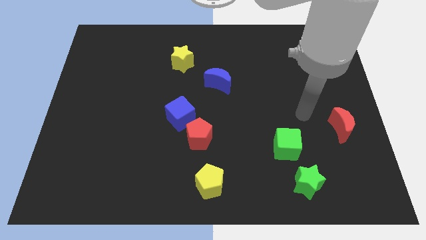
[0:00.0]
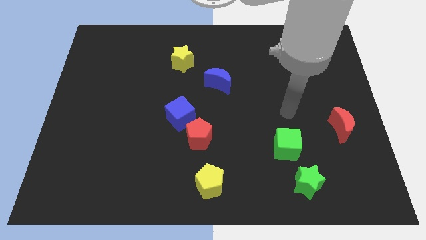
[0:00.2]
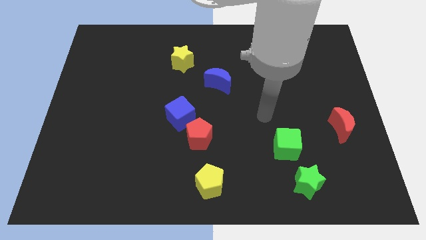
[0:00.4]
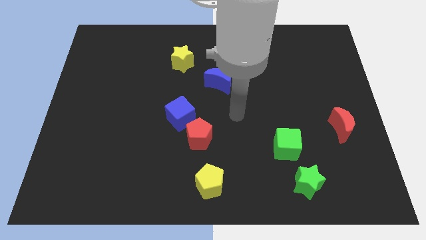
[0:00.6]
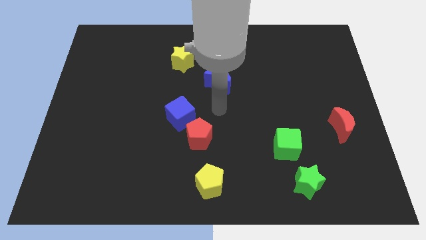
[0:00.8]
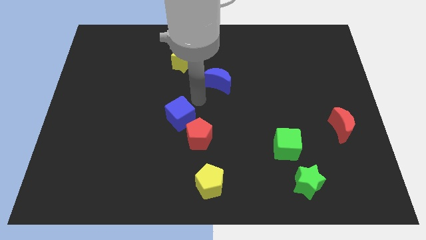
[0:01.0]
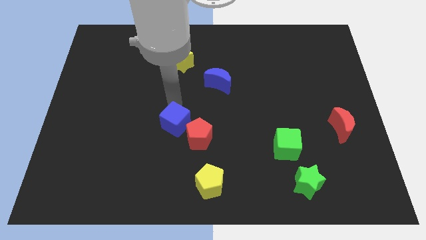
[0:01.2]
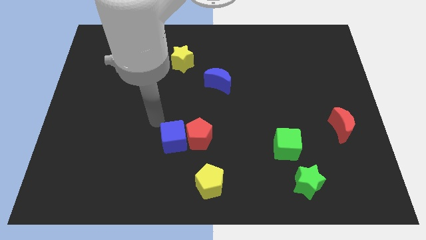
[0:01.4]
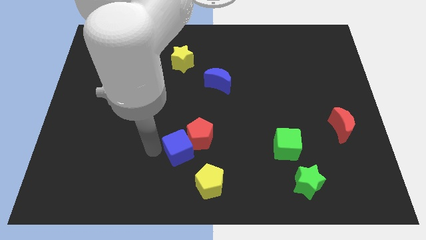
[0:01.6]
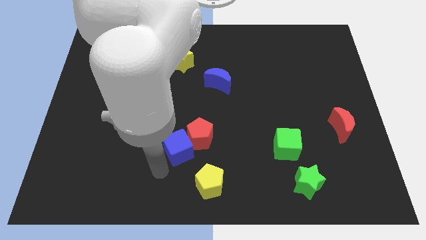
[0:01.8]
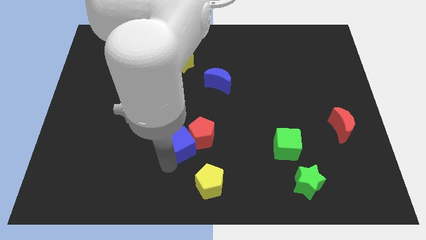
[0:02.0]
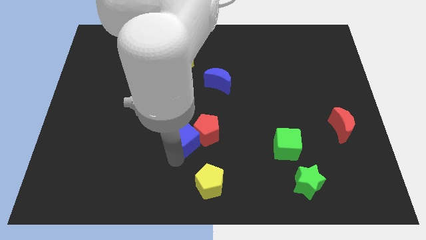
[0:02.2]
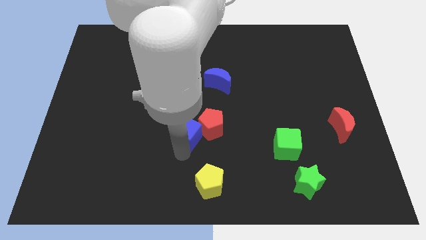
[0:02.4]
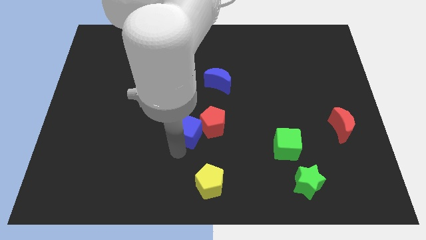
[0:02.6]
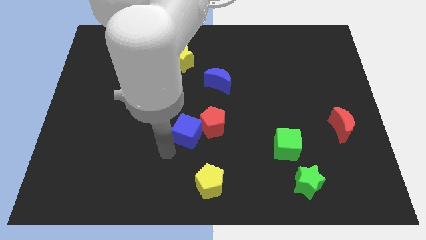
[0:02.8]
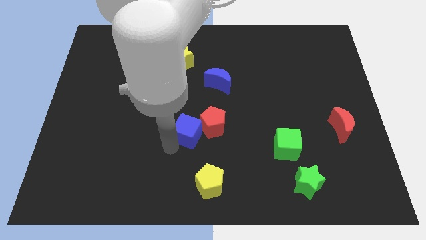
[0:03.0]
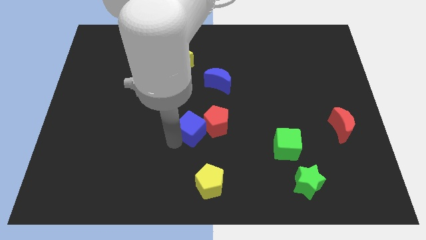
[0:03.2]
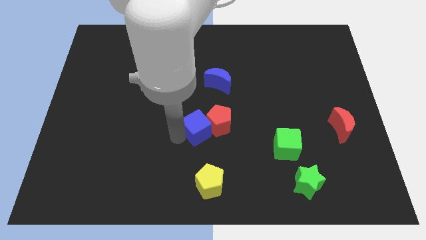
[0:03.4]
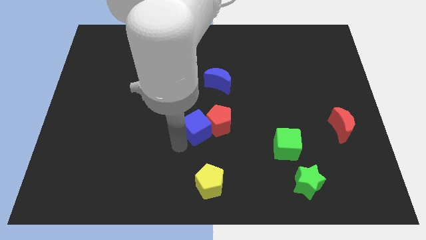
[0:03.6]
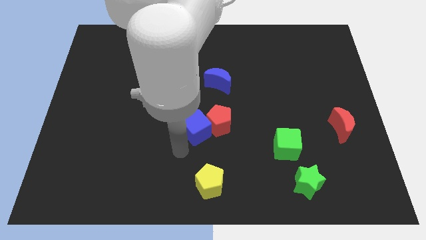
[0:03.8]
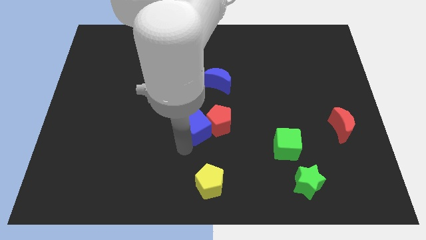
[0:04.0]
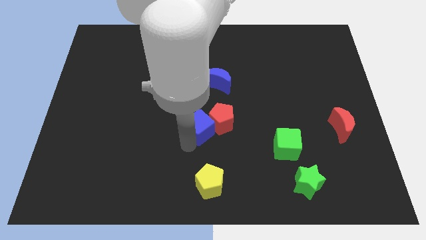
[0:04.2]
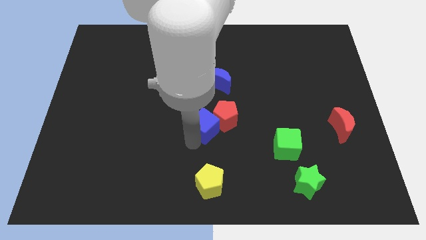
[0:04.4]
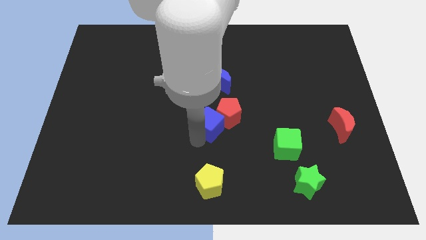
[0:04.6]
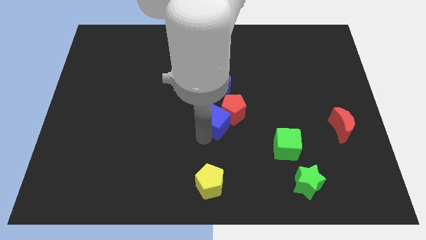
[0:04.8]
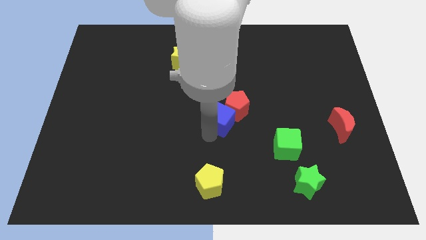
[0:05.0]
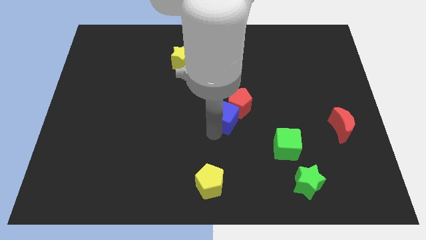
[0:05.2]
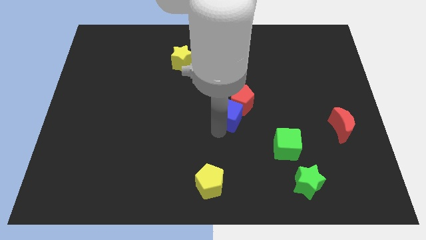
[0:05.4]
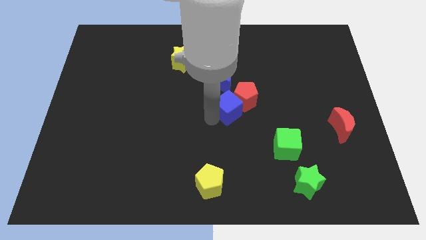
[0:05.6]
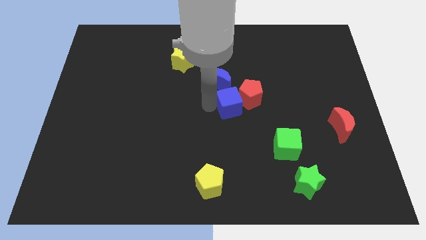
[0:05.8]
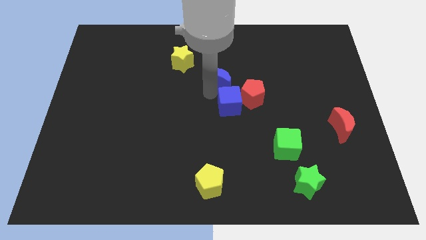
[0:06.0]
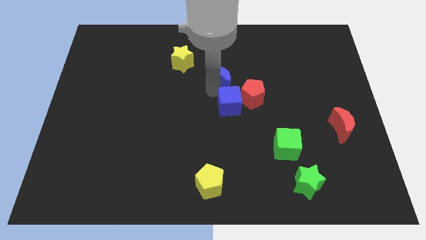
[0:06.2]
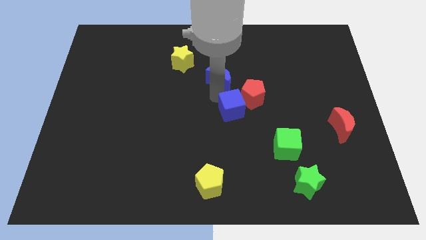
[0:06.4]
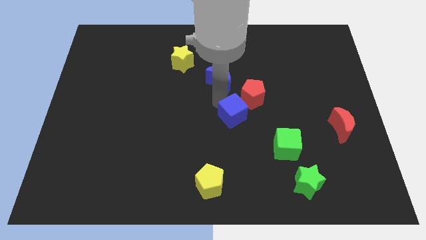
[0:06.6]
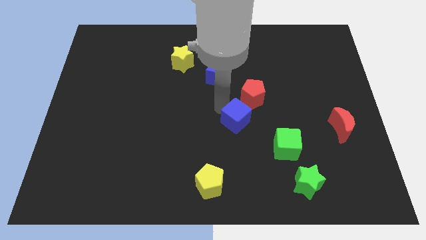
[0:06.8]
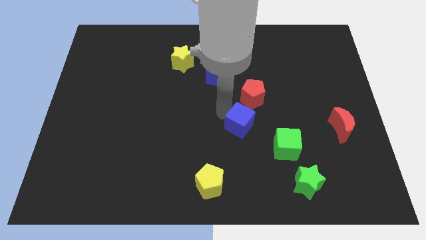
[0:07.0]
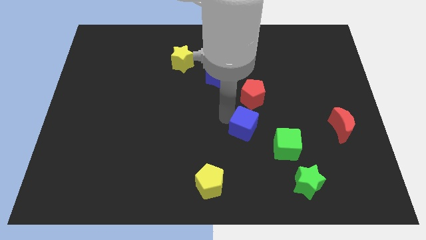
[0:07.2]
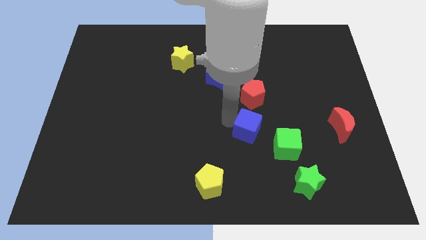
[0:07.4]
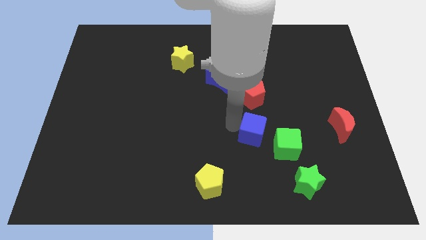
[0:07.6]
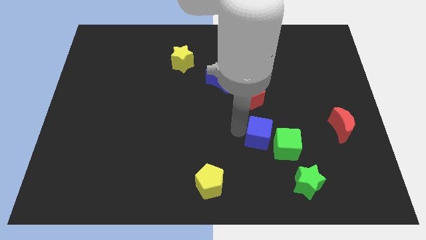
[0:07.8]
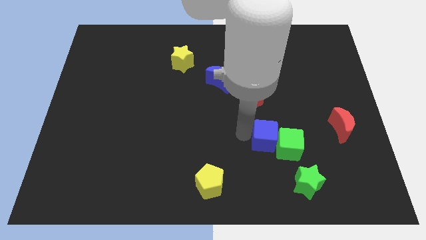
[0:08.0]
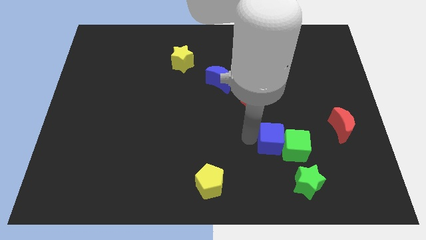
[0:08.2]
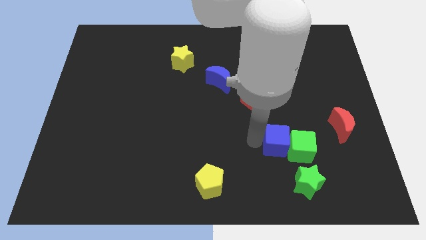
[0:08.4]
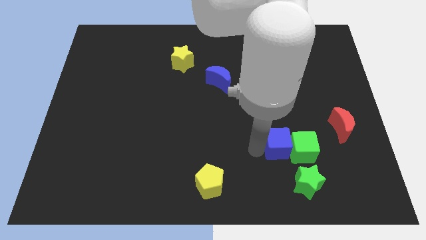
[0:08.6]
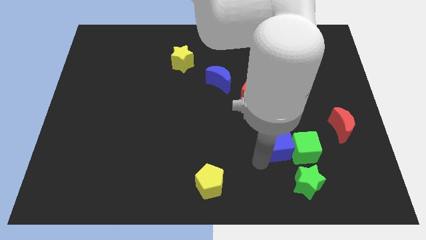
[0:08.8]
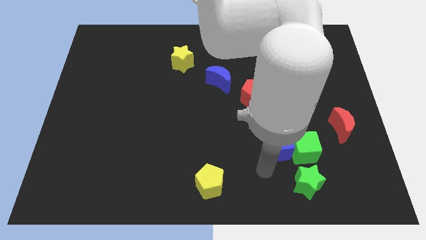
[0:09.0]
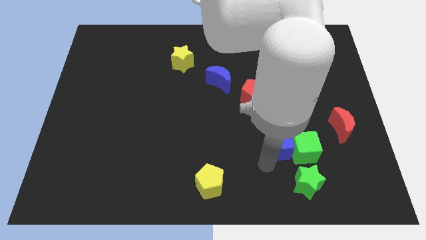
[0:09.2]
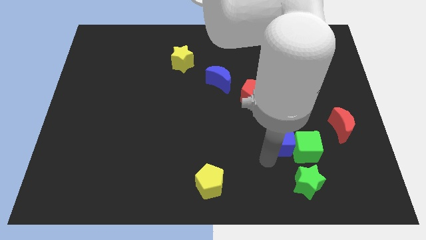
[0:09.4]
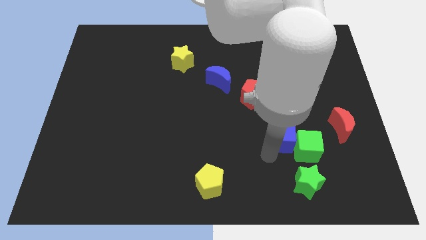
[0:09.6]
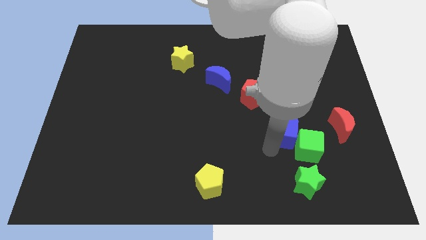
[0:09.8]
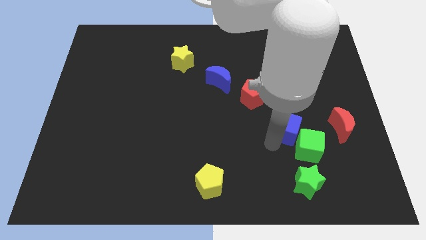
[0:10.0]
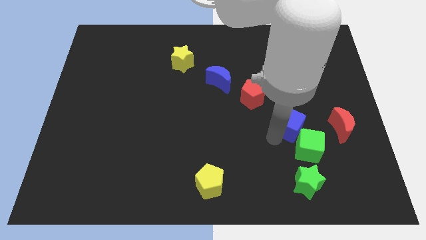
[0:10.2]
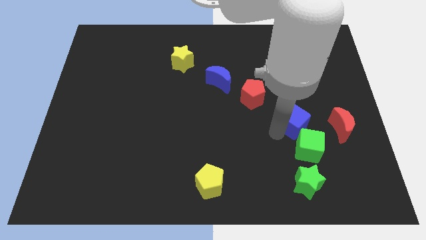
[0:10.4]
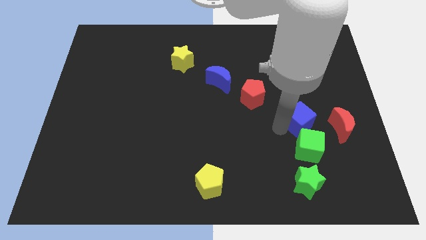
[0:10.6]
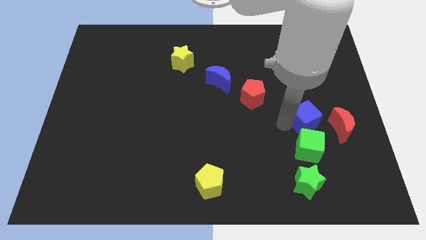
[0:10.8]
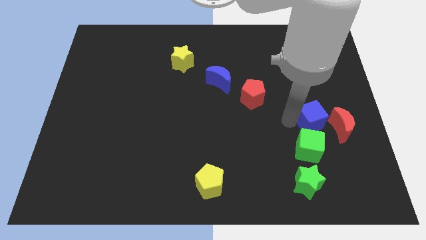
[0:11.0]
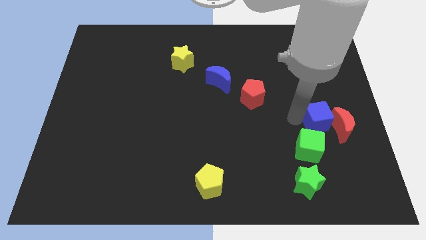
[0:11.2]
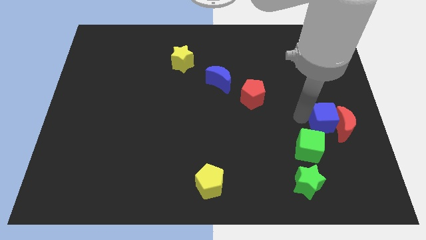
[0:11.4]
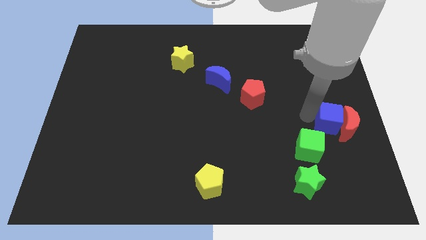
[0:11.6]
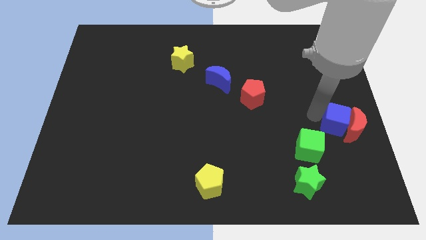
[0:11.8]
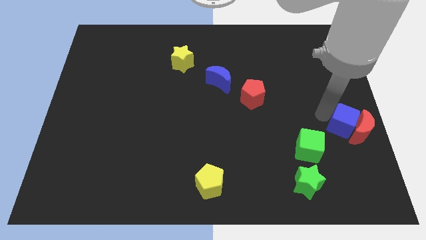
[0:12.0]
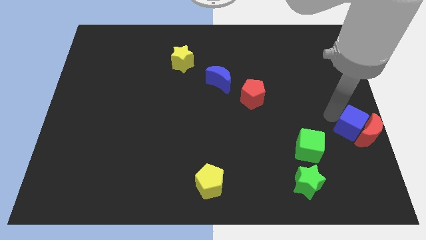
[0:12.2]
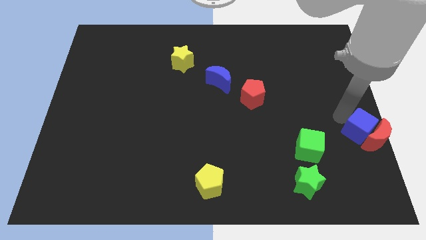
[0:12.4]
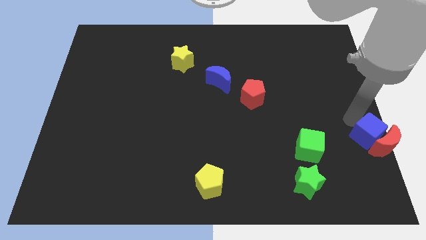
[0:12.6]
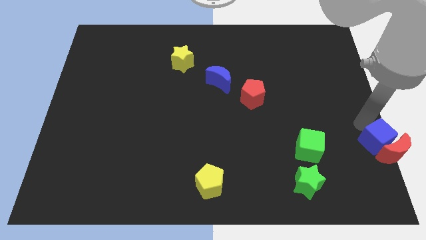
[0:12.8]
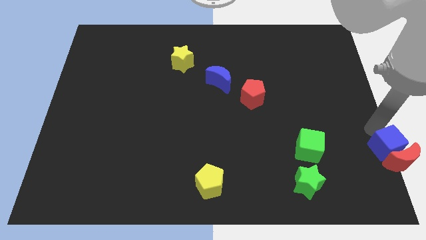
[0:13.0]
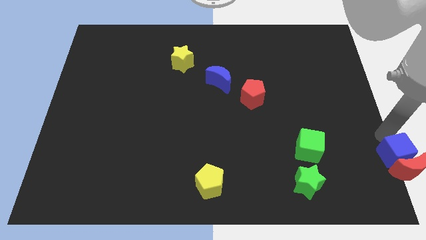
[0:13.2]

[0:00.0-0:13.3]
push the blue cube to the bottom right
